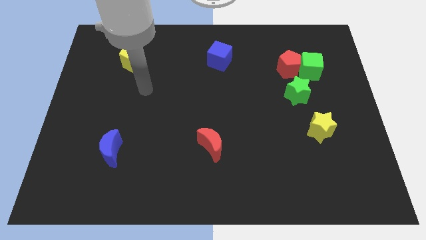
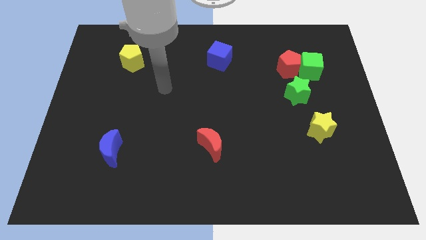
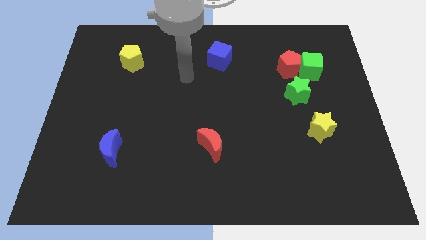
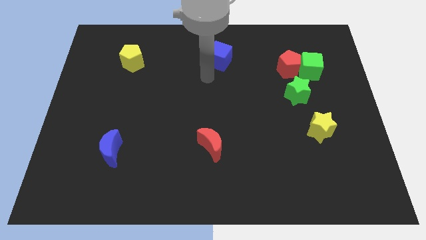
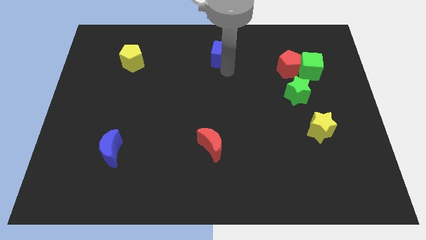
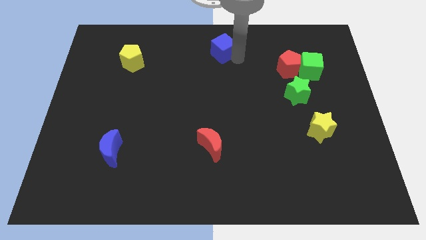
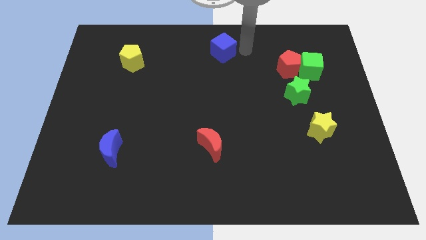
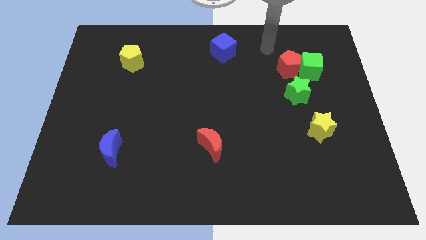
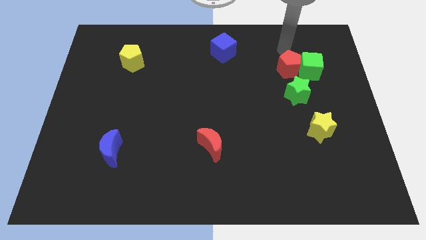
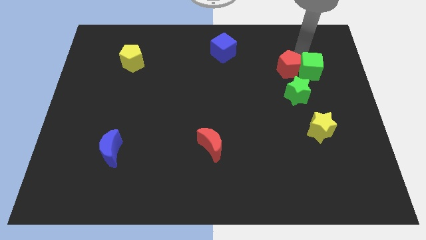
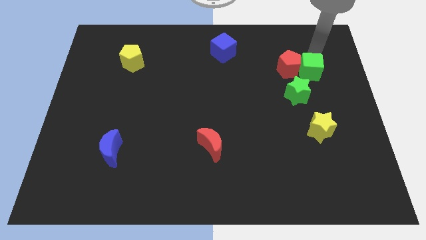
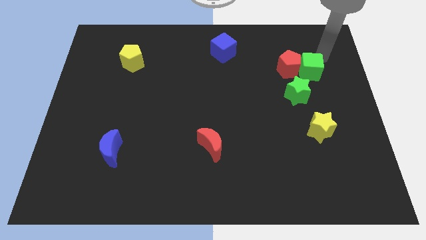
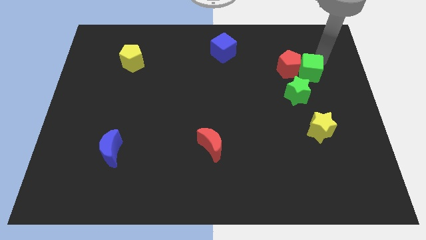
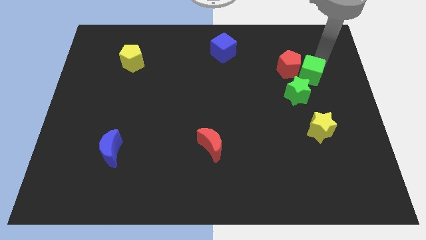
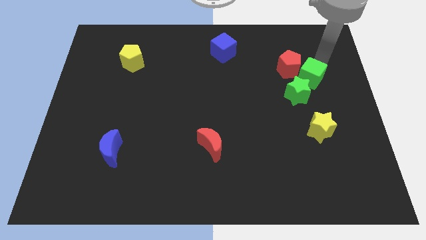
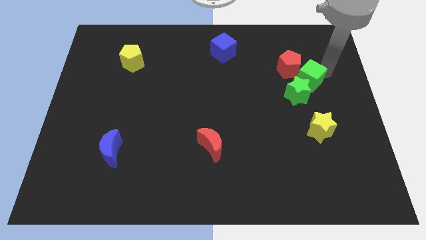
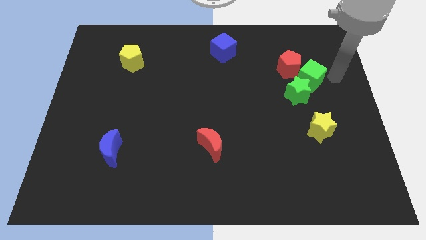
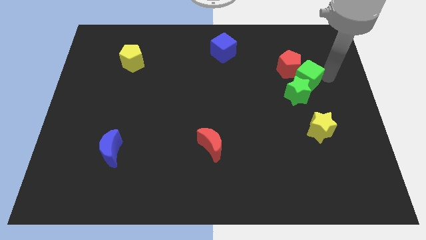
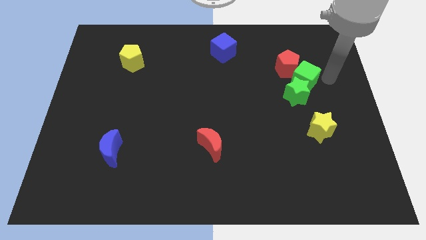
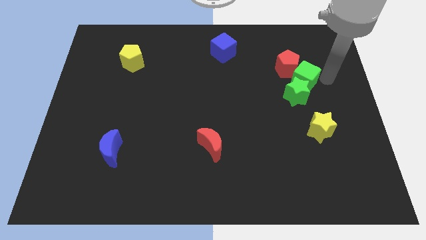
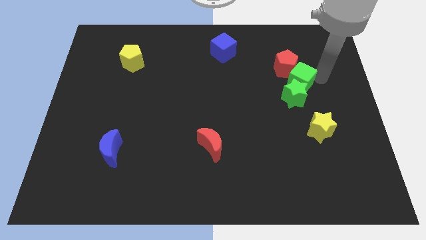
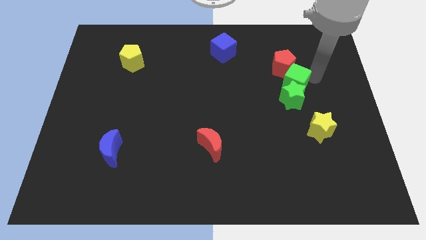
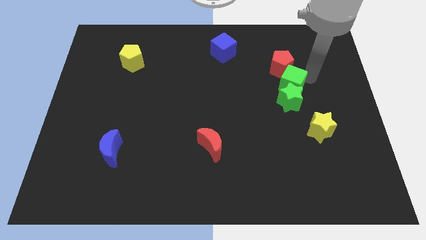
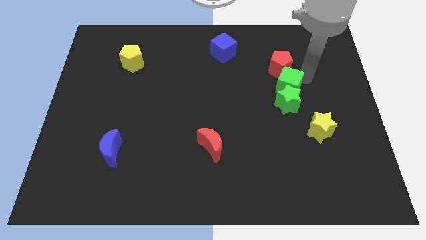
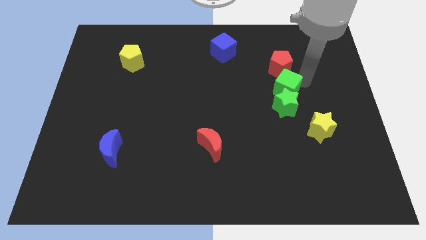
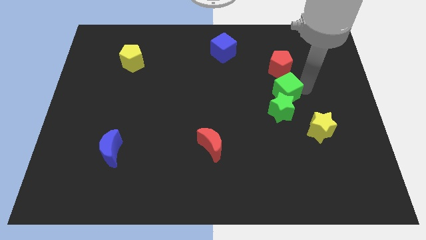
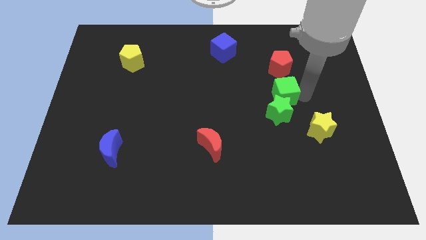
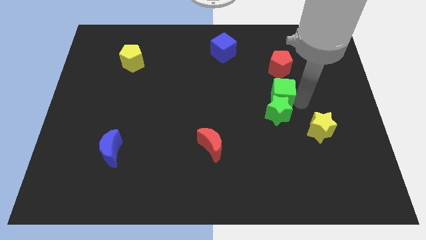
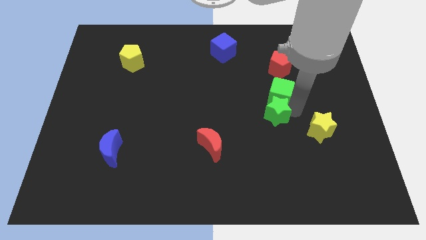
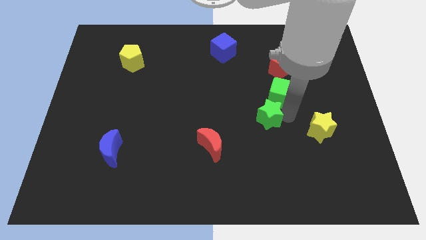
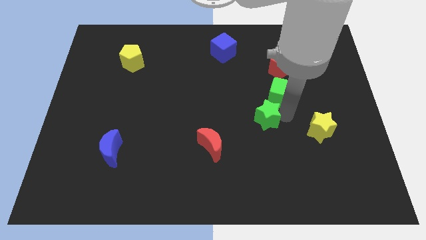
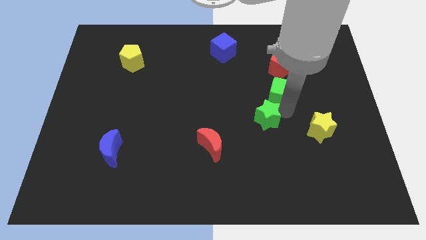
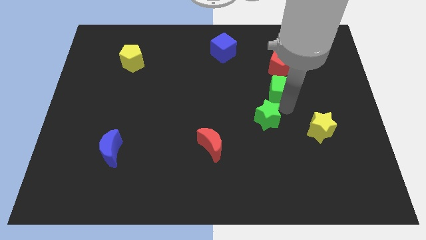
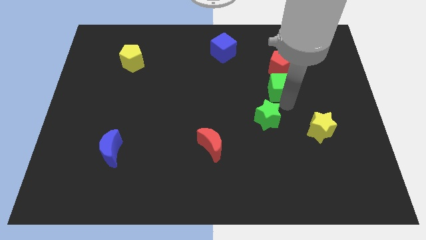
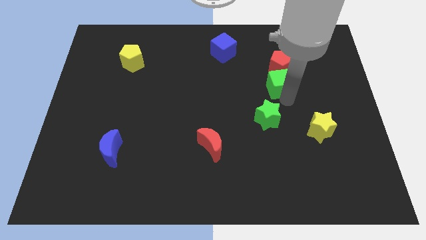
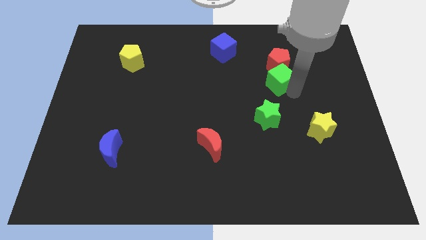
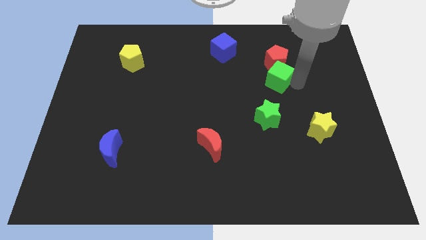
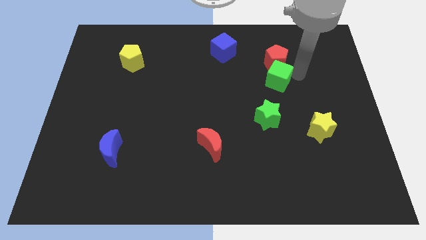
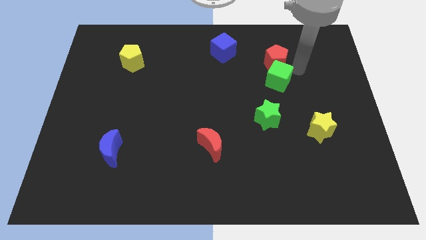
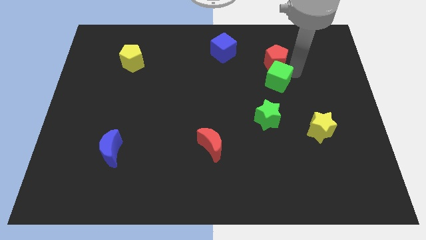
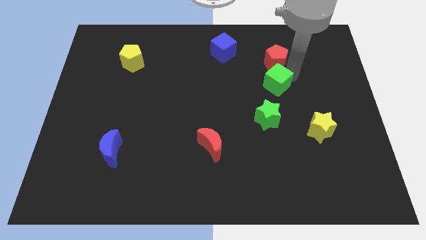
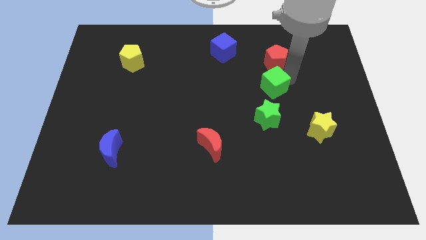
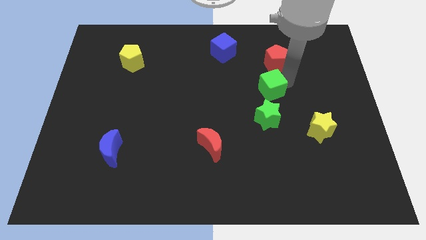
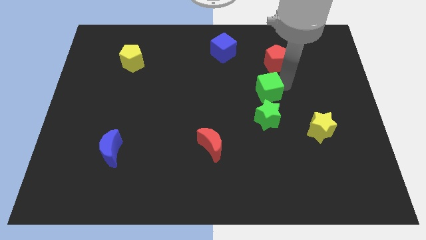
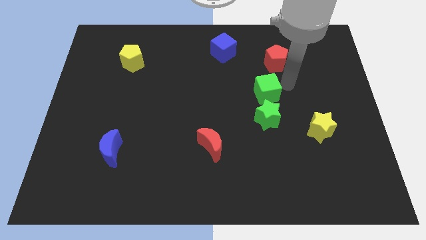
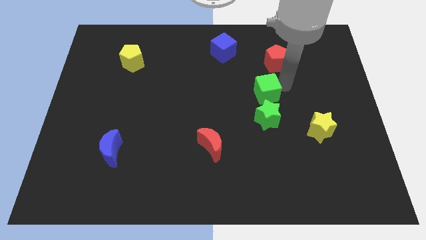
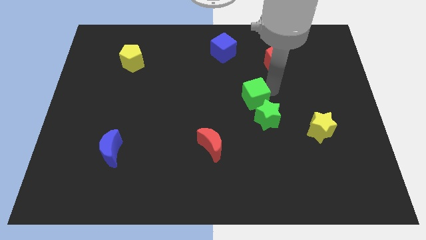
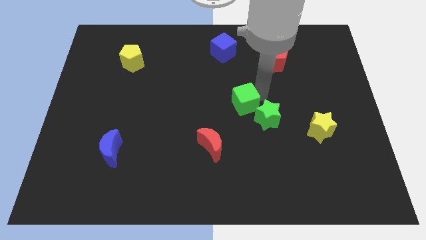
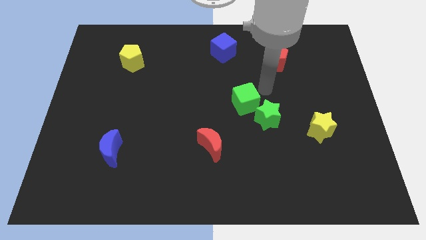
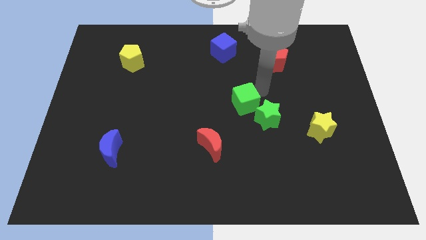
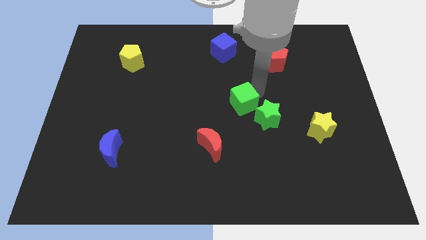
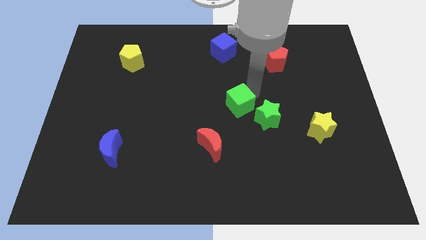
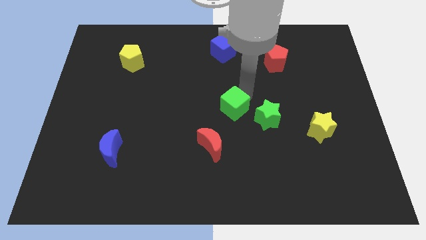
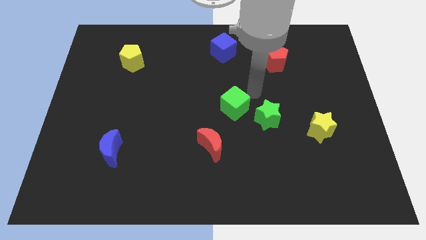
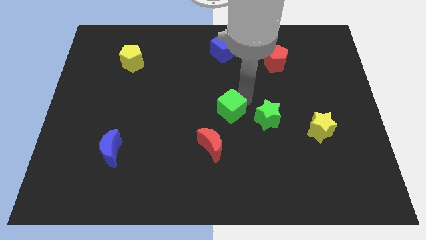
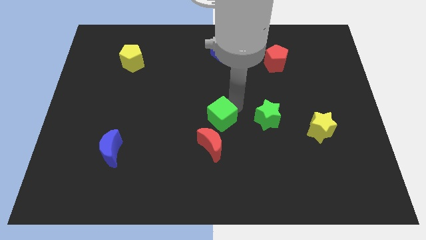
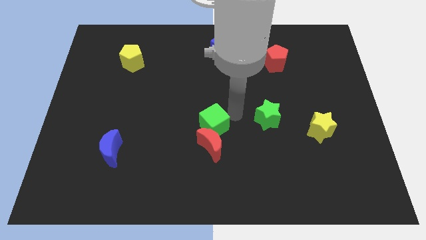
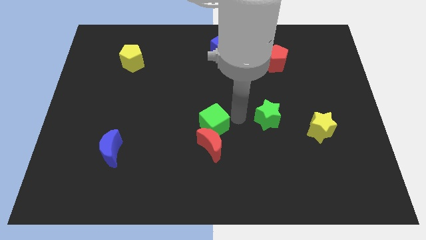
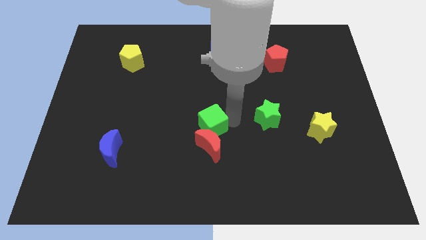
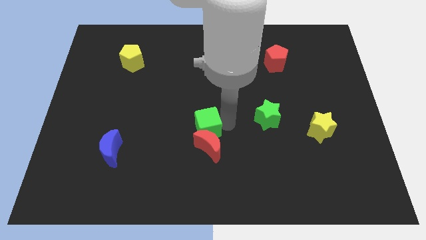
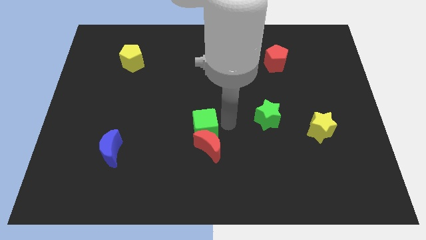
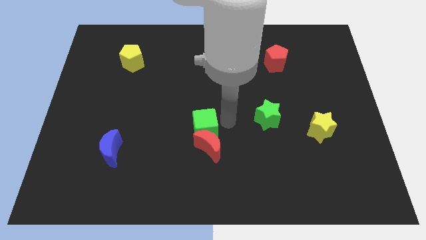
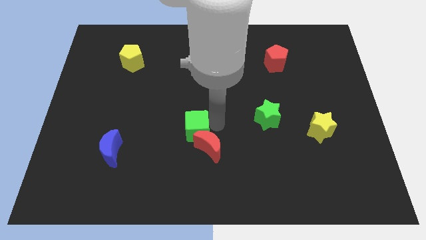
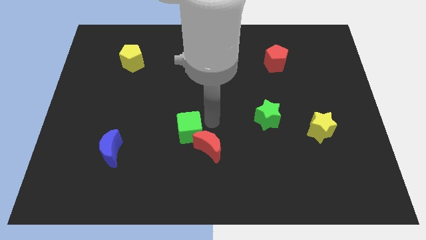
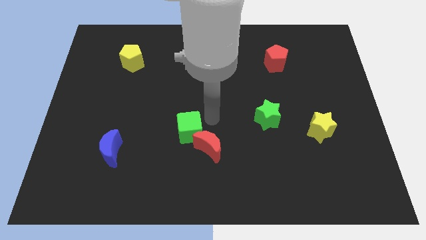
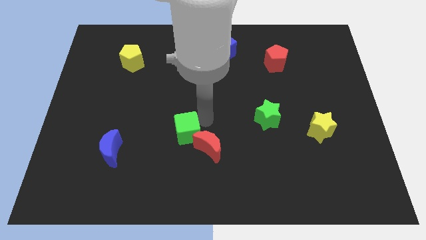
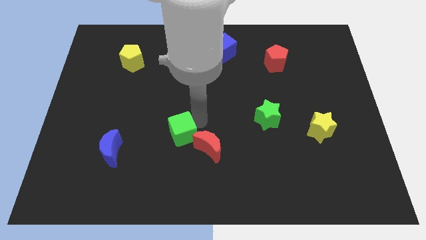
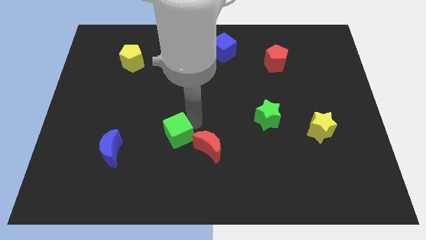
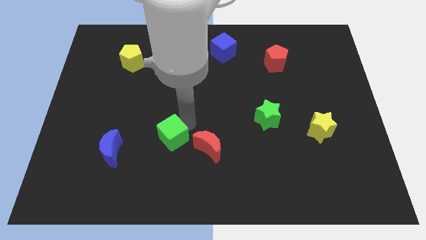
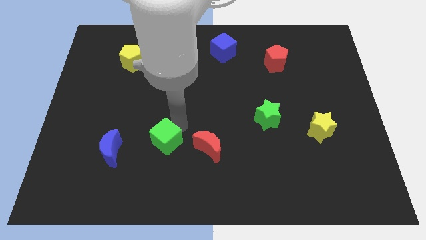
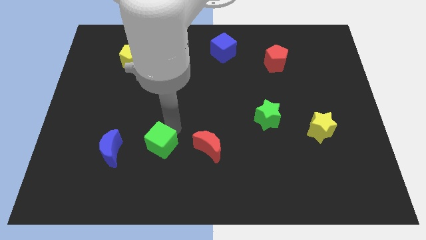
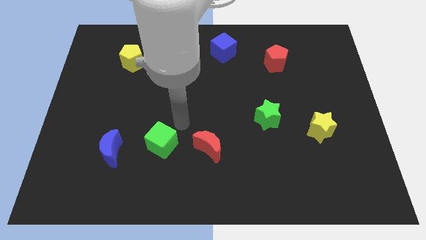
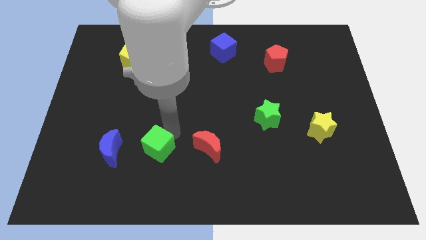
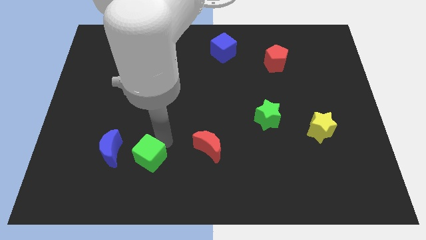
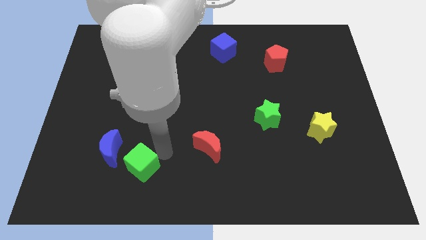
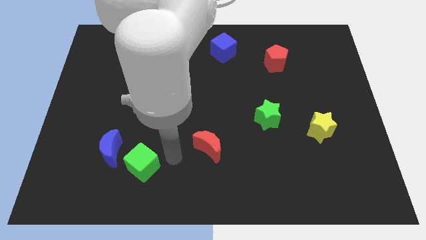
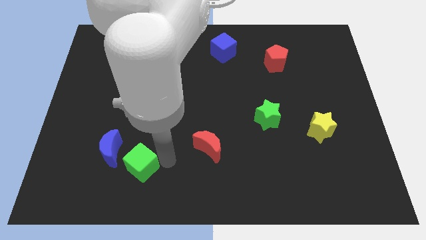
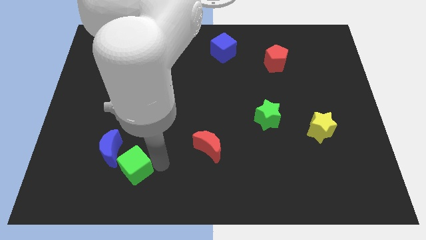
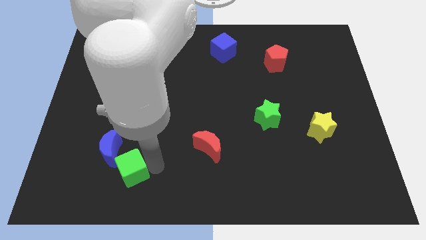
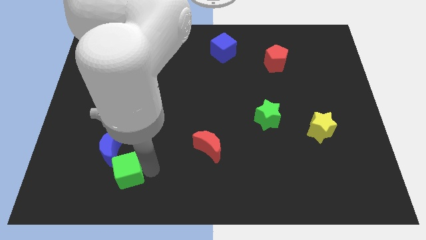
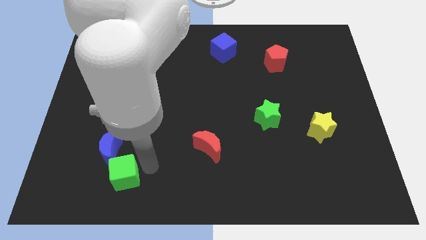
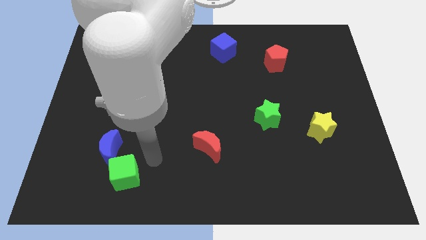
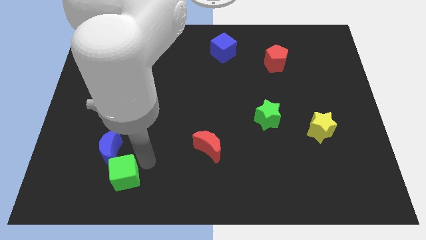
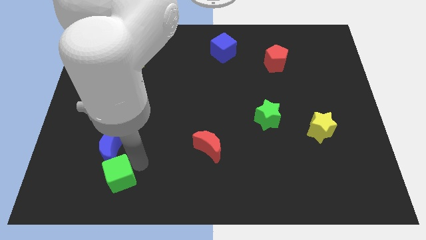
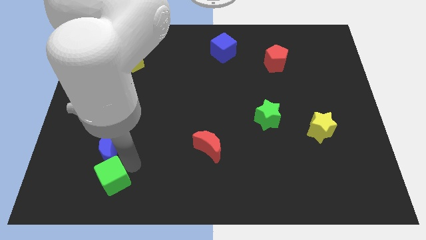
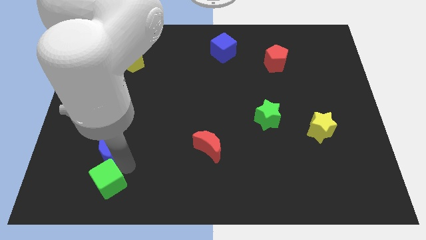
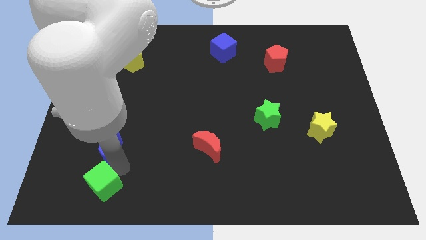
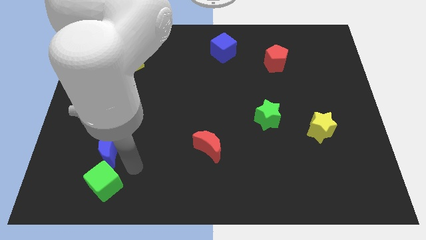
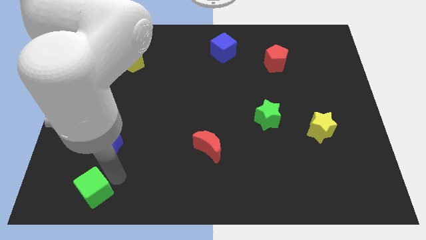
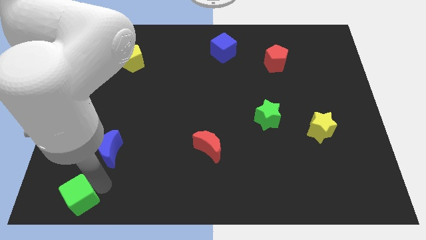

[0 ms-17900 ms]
put the green cube to the bottom left of the board
